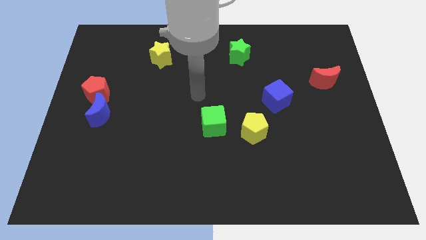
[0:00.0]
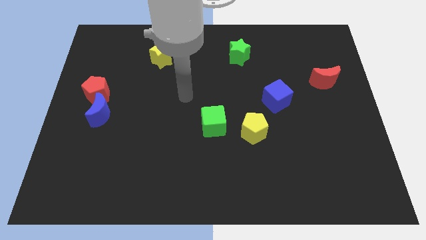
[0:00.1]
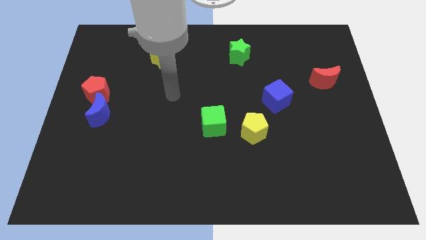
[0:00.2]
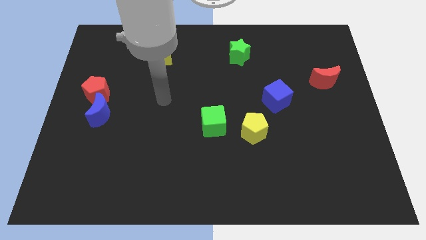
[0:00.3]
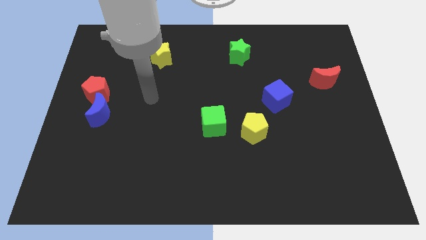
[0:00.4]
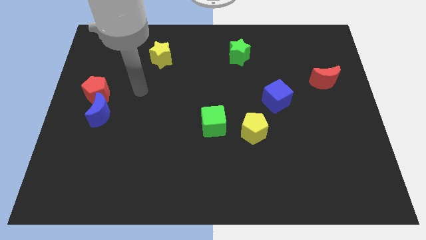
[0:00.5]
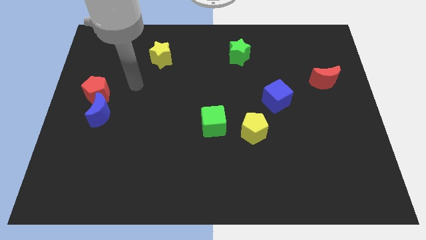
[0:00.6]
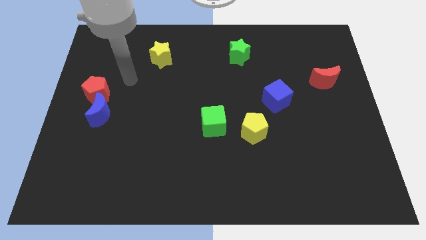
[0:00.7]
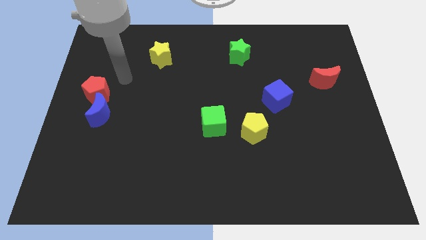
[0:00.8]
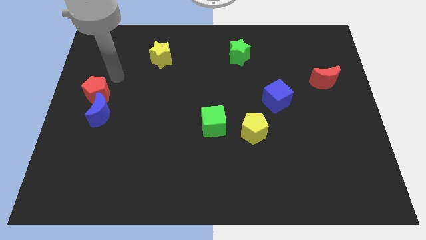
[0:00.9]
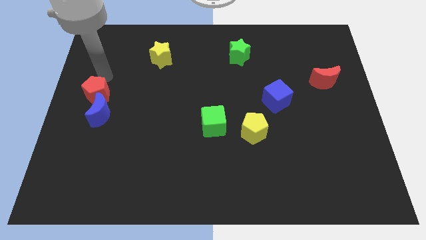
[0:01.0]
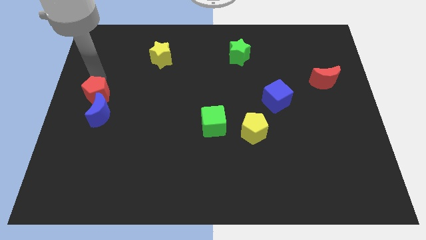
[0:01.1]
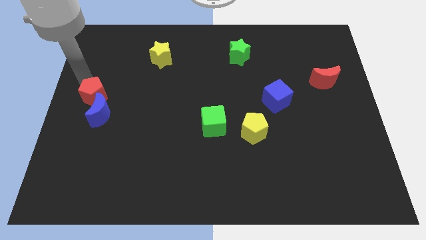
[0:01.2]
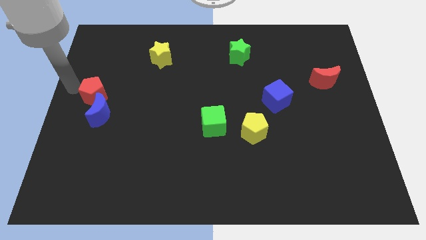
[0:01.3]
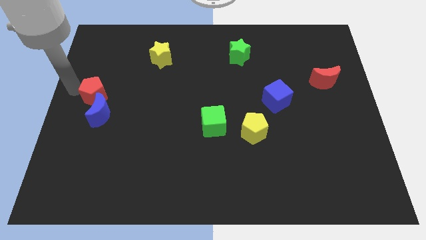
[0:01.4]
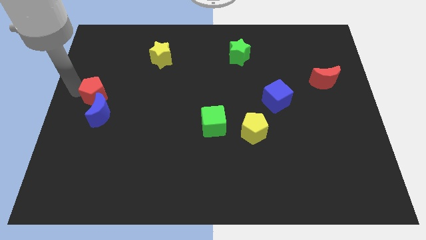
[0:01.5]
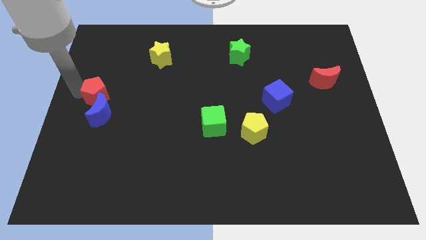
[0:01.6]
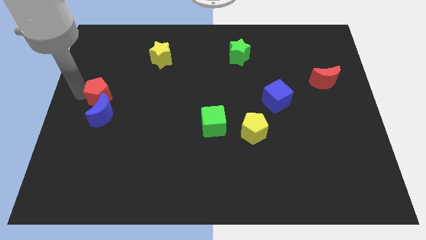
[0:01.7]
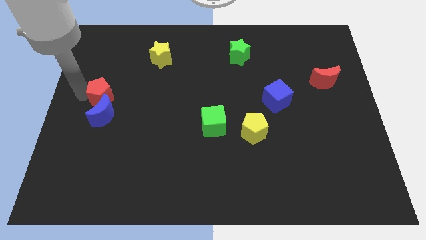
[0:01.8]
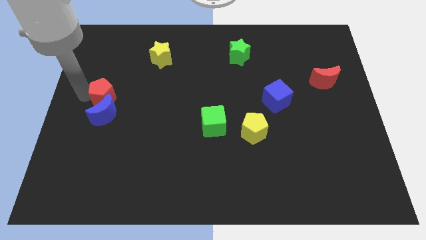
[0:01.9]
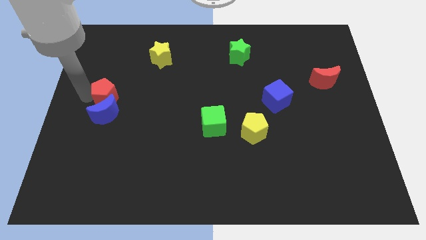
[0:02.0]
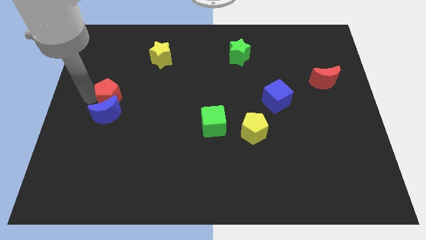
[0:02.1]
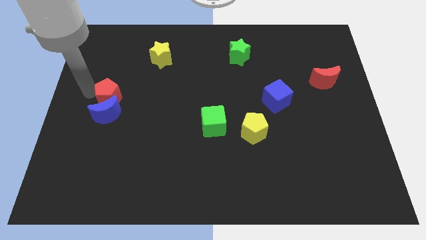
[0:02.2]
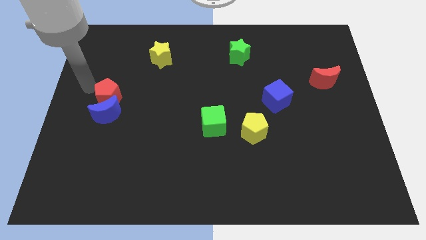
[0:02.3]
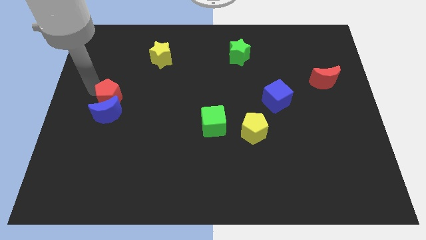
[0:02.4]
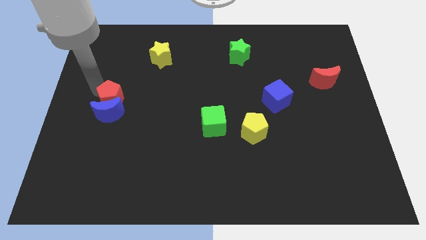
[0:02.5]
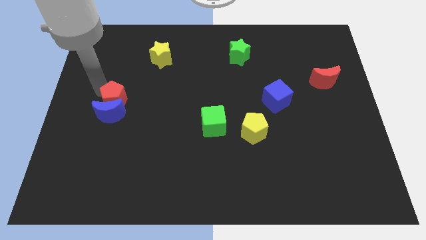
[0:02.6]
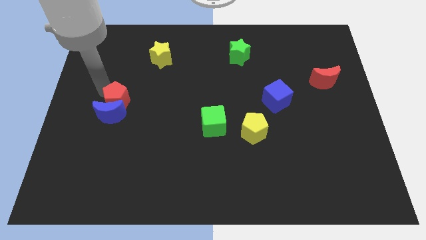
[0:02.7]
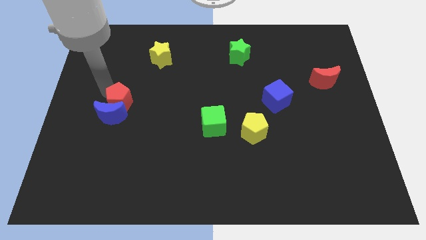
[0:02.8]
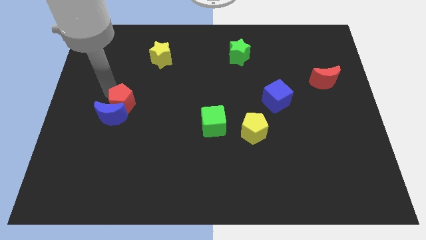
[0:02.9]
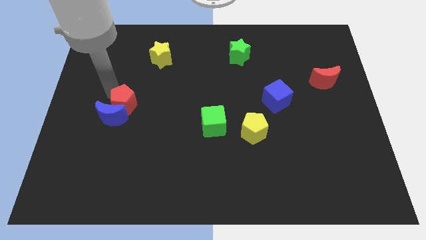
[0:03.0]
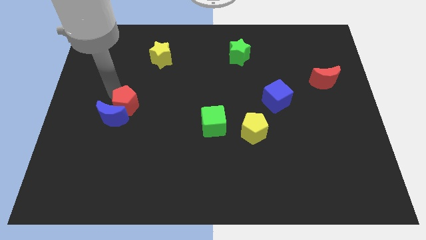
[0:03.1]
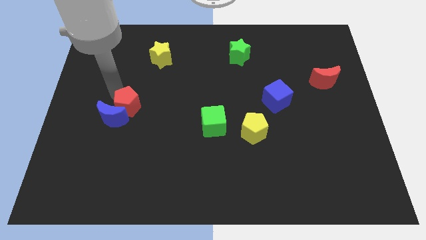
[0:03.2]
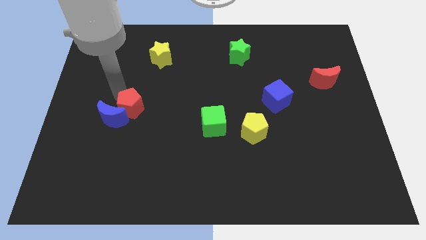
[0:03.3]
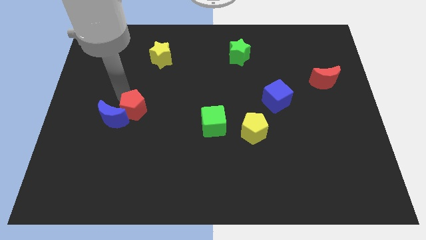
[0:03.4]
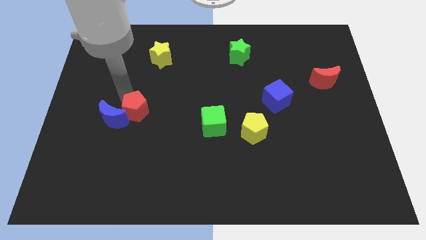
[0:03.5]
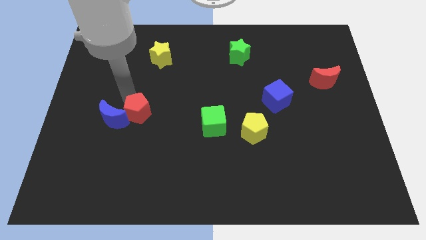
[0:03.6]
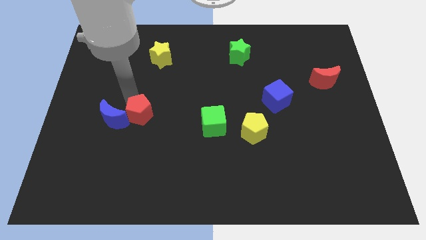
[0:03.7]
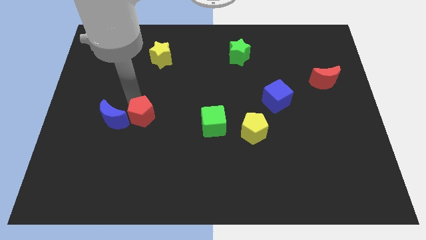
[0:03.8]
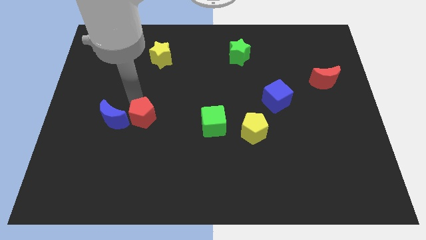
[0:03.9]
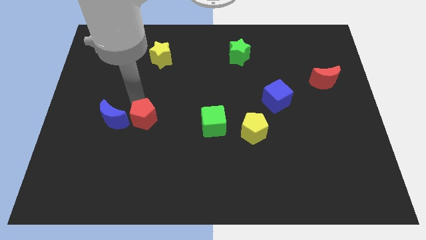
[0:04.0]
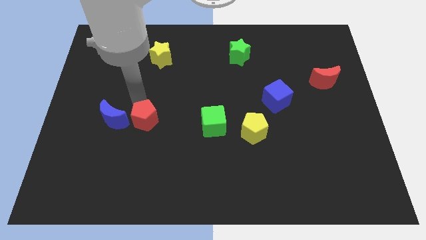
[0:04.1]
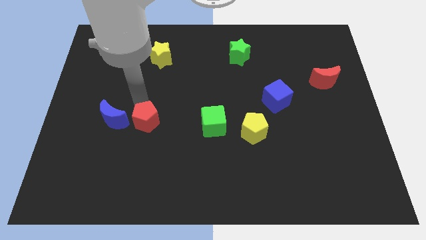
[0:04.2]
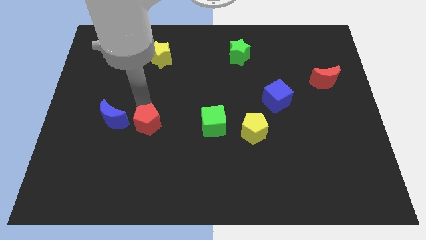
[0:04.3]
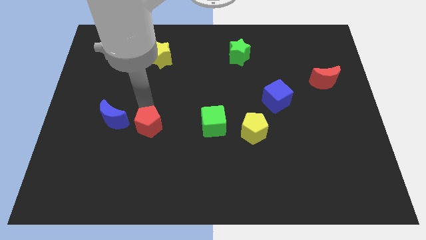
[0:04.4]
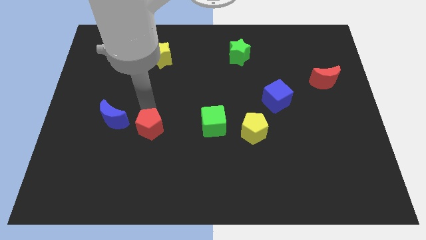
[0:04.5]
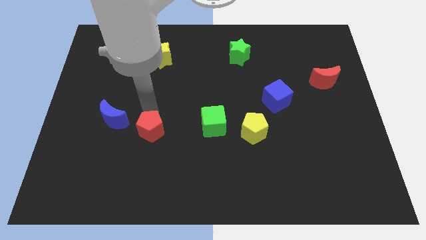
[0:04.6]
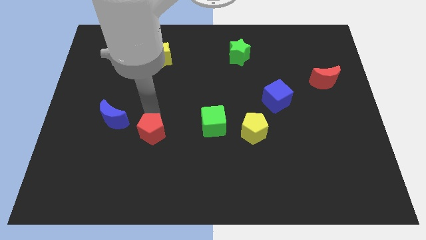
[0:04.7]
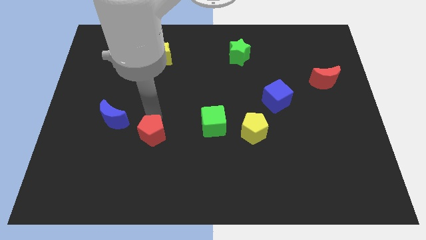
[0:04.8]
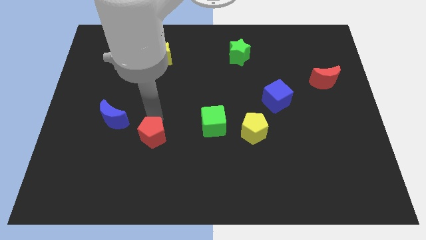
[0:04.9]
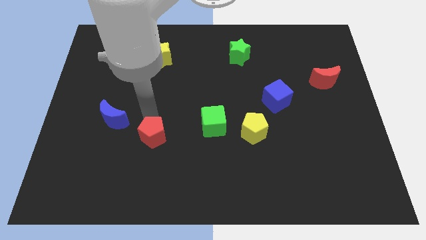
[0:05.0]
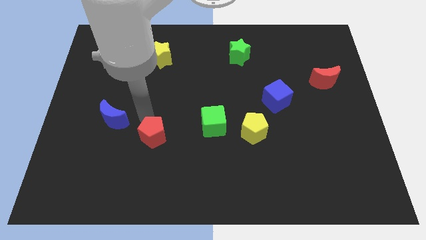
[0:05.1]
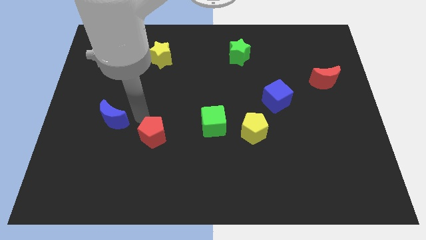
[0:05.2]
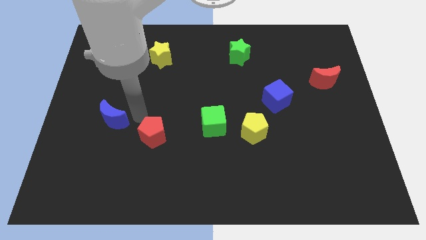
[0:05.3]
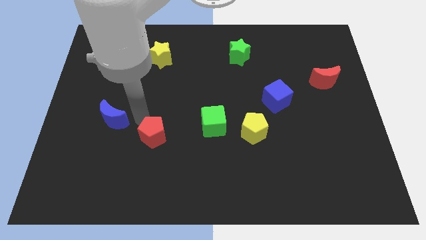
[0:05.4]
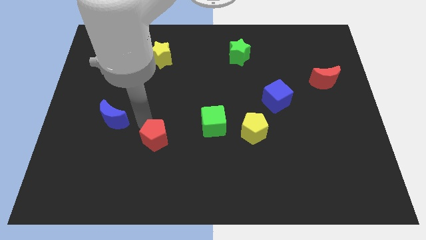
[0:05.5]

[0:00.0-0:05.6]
move the red pentagon downwards and then to the right

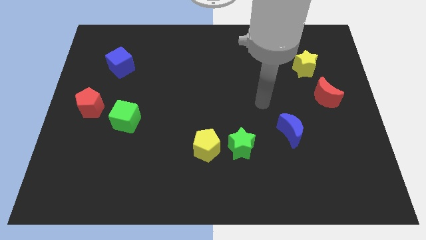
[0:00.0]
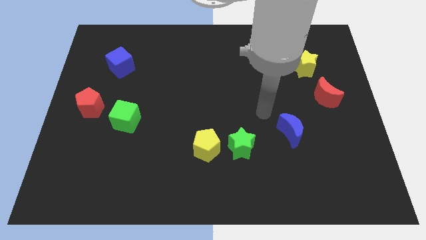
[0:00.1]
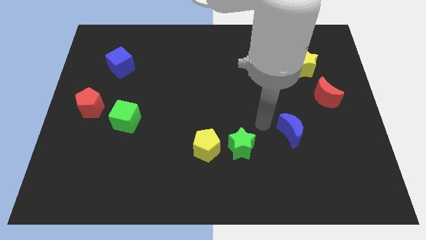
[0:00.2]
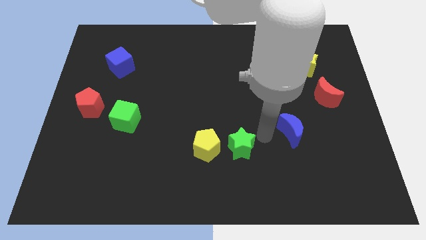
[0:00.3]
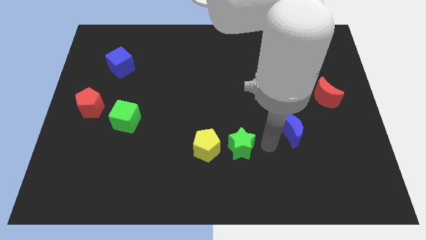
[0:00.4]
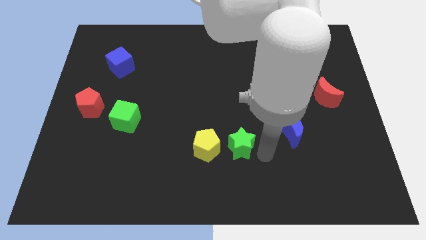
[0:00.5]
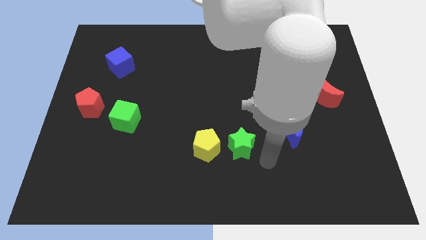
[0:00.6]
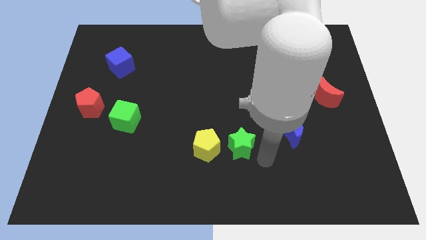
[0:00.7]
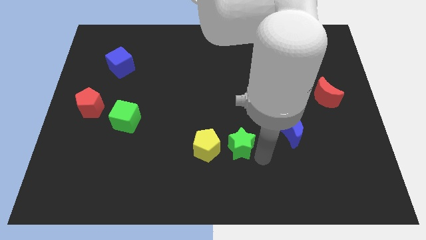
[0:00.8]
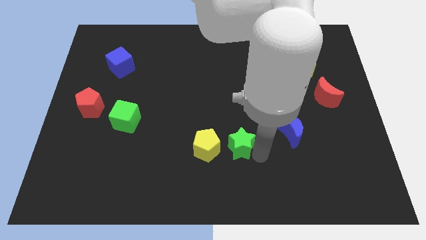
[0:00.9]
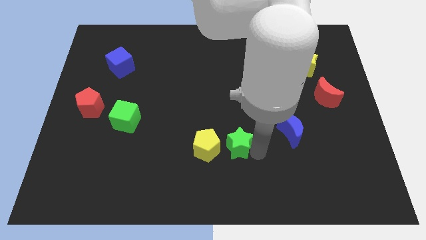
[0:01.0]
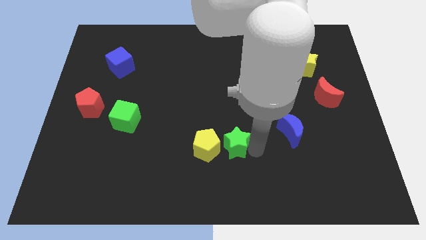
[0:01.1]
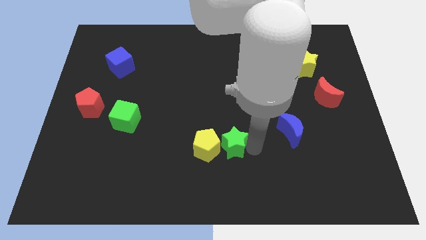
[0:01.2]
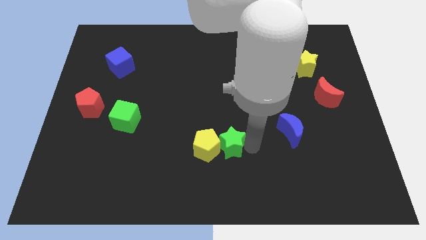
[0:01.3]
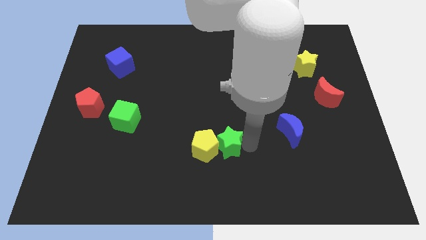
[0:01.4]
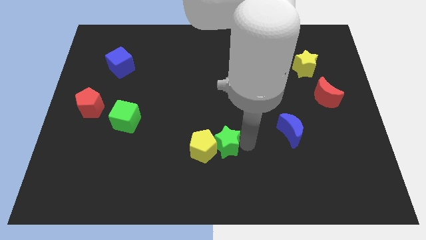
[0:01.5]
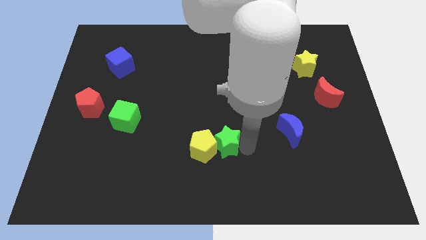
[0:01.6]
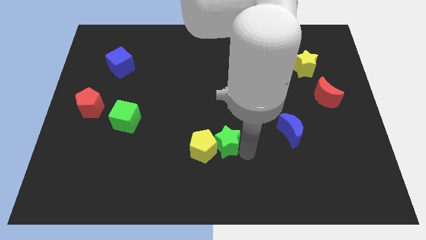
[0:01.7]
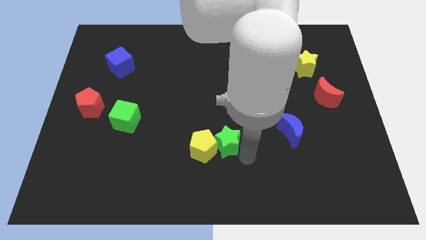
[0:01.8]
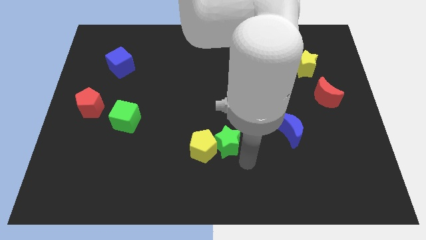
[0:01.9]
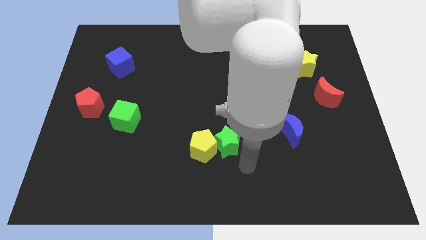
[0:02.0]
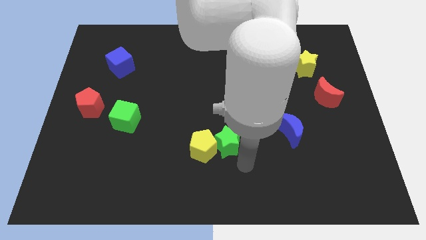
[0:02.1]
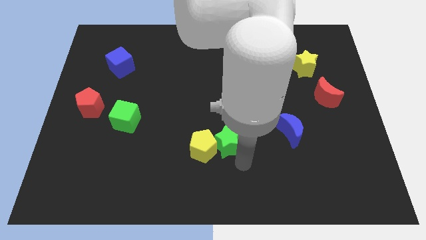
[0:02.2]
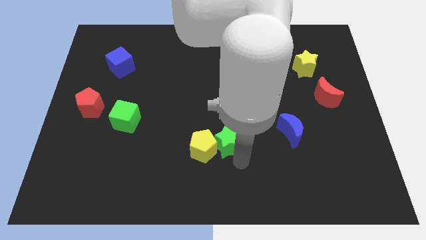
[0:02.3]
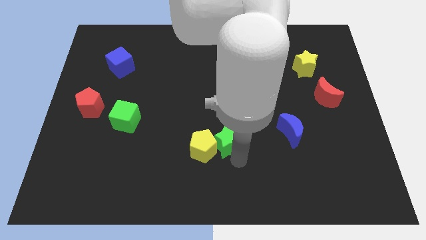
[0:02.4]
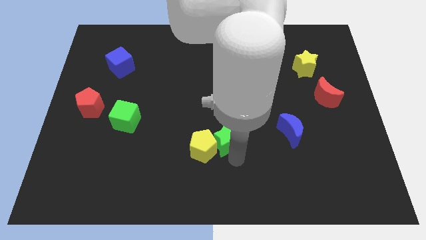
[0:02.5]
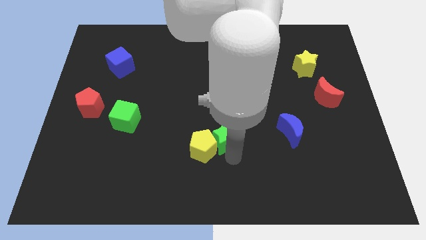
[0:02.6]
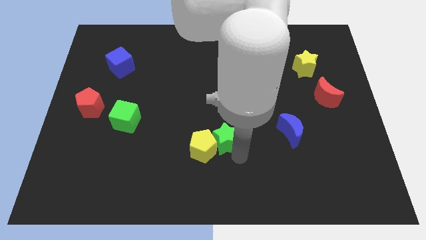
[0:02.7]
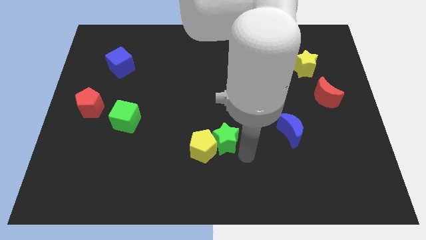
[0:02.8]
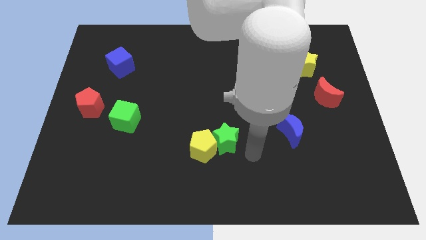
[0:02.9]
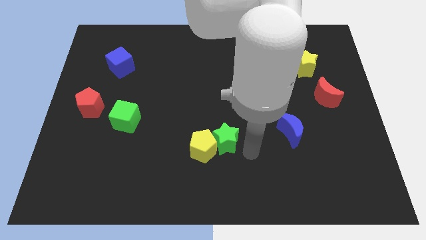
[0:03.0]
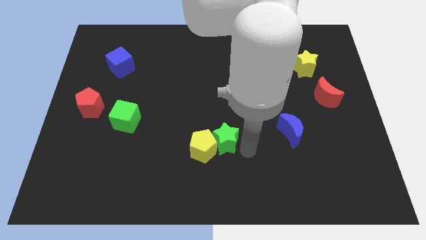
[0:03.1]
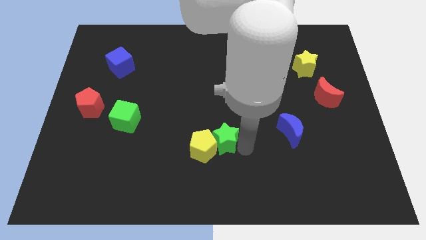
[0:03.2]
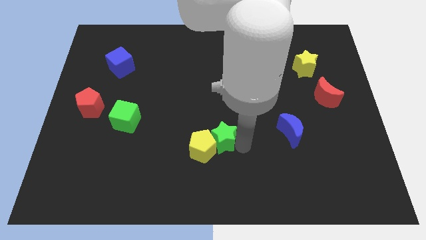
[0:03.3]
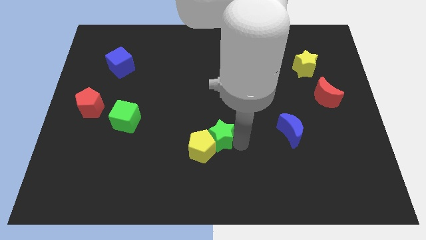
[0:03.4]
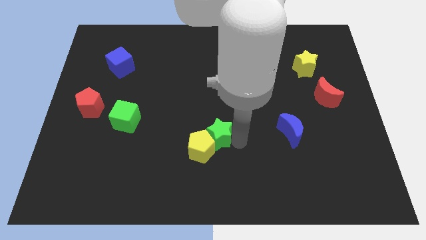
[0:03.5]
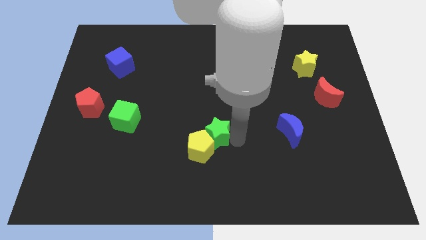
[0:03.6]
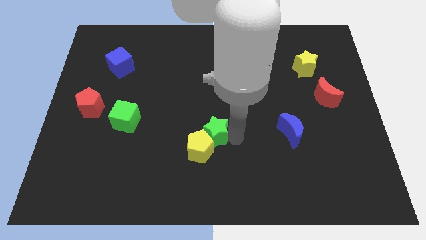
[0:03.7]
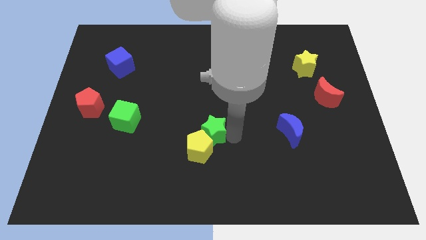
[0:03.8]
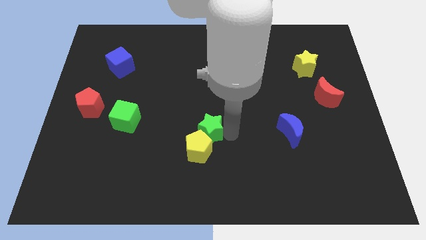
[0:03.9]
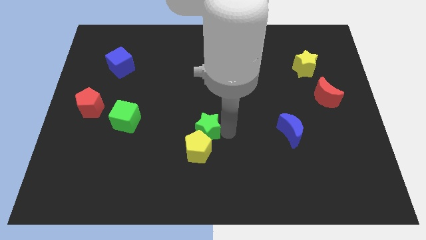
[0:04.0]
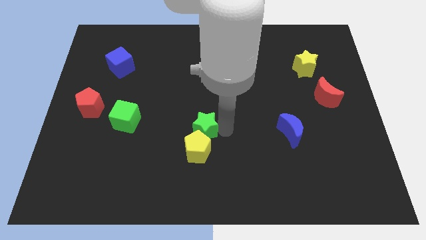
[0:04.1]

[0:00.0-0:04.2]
push the green star to the left slightly
